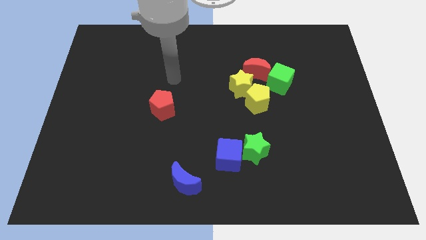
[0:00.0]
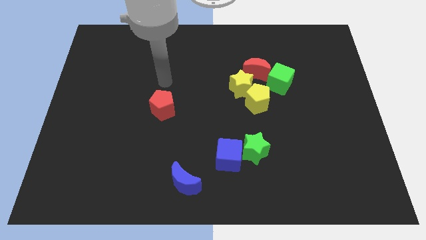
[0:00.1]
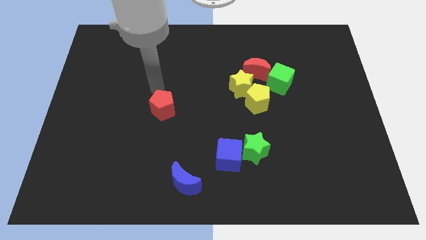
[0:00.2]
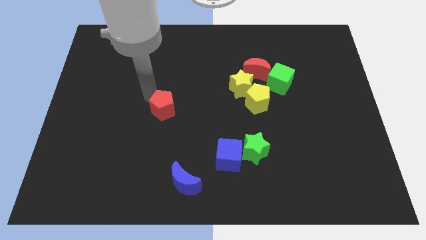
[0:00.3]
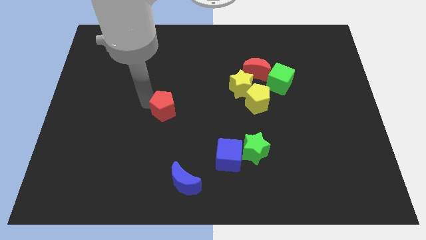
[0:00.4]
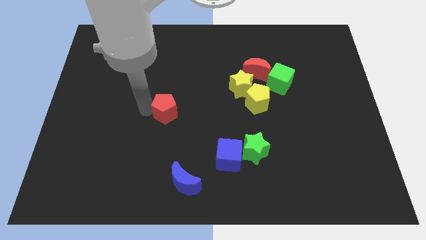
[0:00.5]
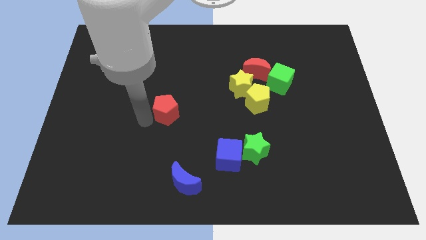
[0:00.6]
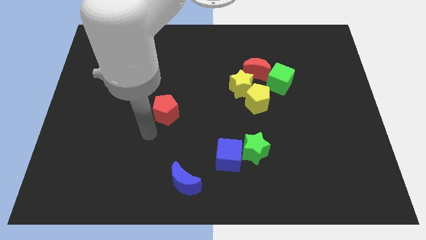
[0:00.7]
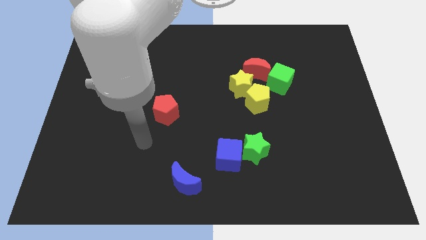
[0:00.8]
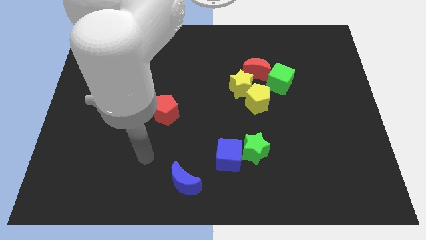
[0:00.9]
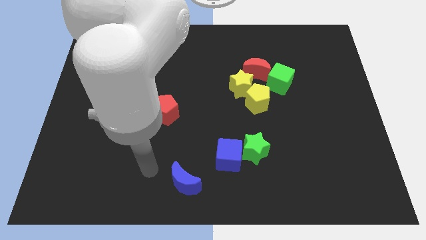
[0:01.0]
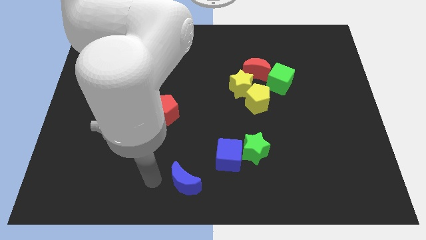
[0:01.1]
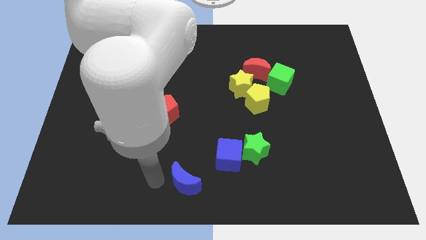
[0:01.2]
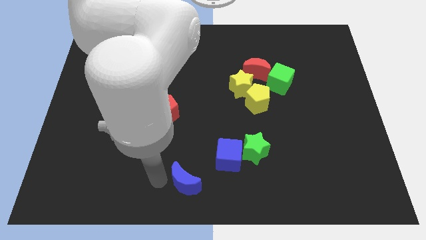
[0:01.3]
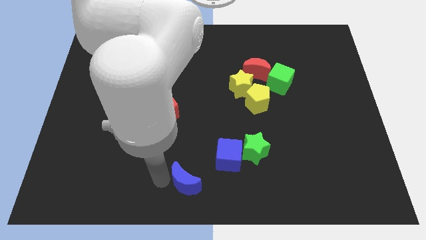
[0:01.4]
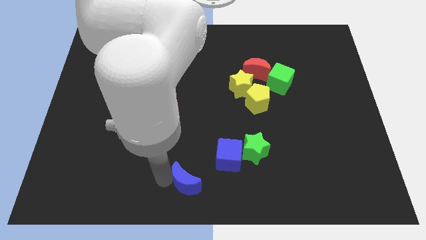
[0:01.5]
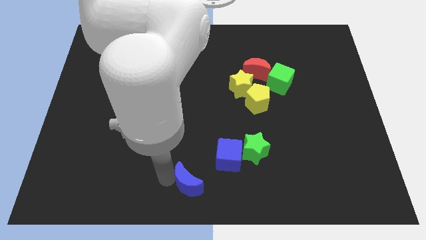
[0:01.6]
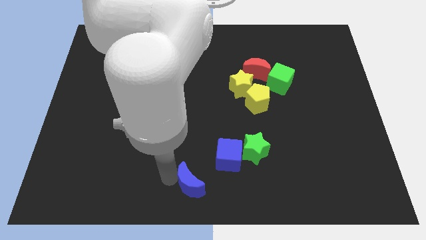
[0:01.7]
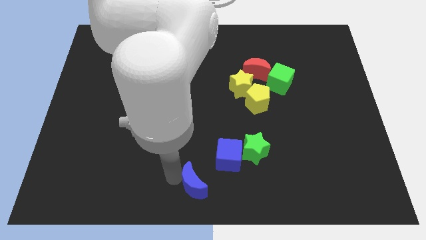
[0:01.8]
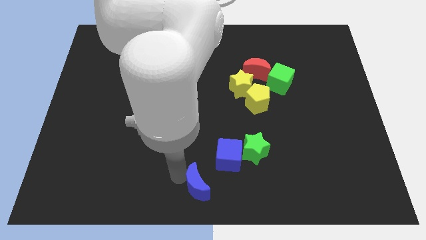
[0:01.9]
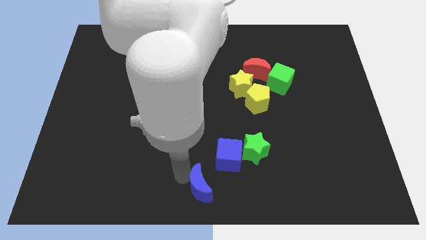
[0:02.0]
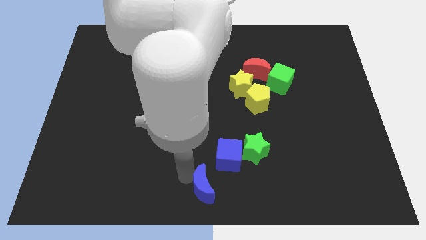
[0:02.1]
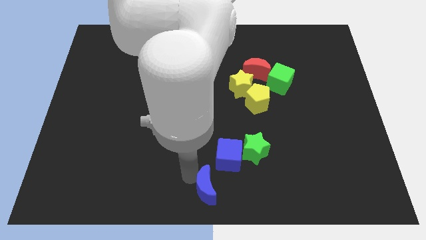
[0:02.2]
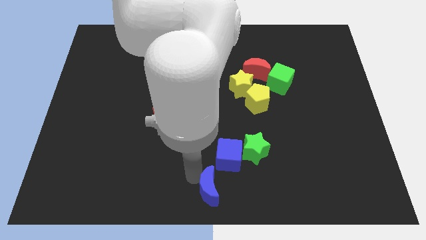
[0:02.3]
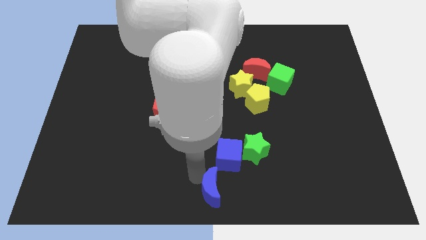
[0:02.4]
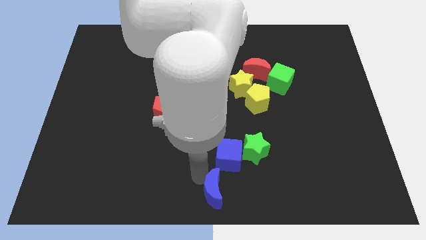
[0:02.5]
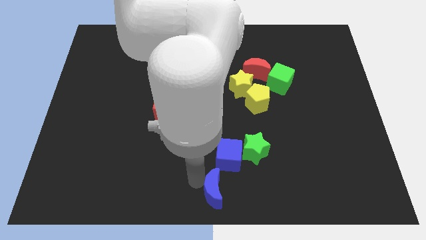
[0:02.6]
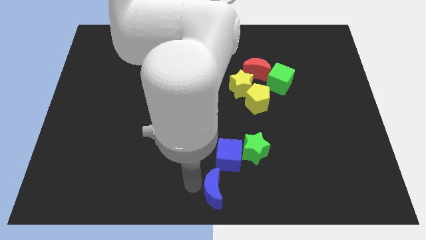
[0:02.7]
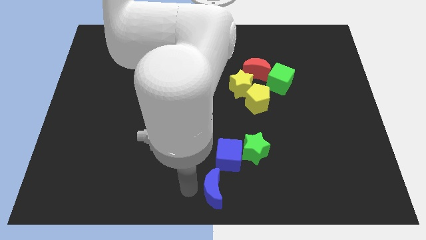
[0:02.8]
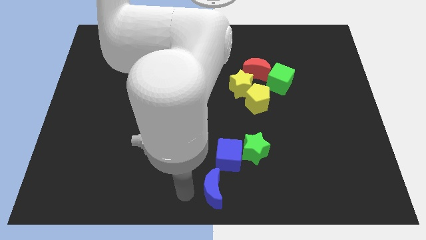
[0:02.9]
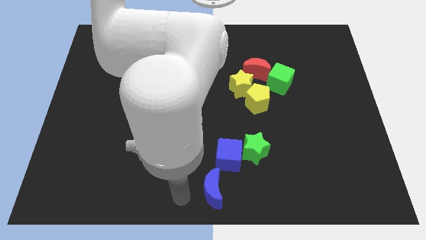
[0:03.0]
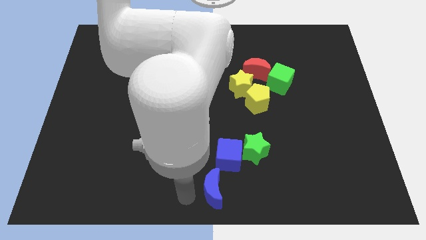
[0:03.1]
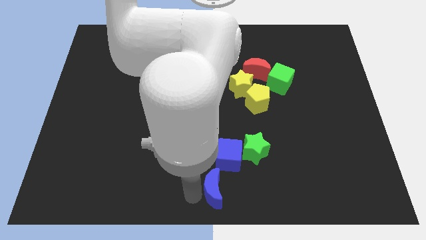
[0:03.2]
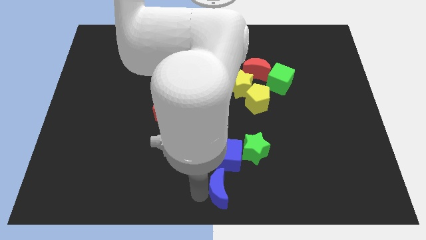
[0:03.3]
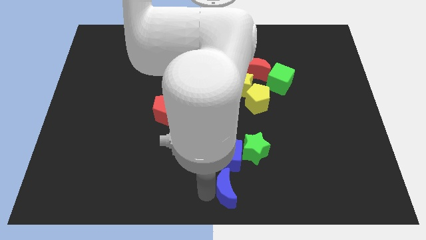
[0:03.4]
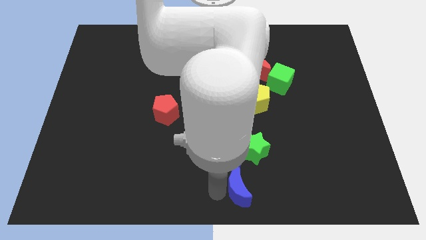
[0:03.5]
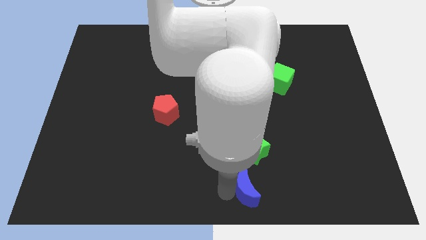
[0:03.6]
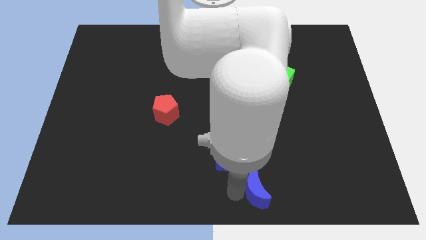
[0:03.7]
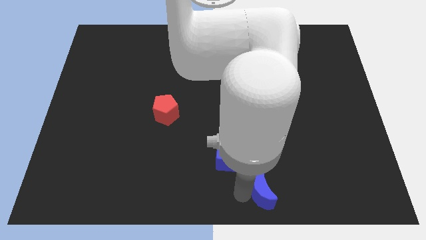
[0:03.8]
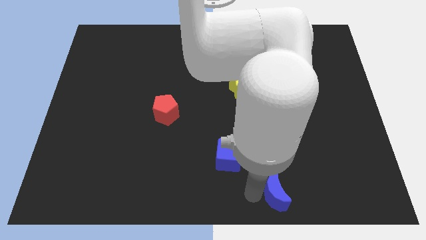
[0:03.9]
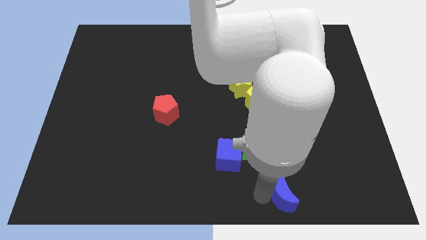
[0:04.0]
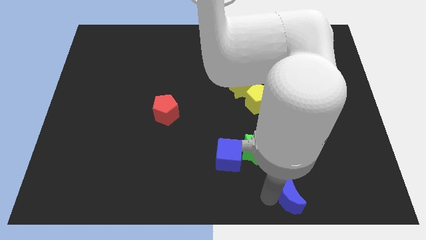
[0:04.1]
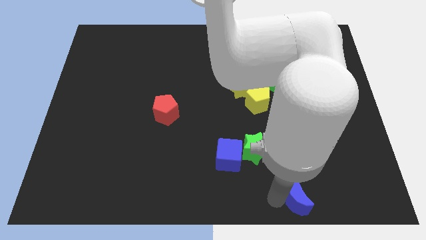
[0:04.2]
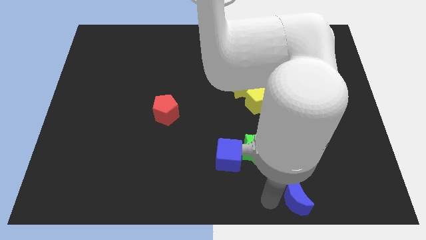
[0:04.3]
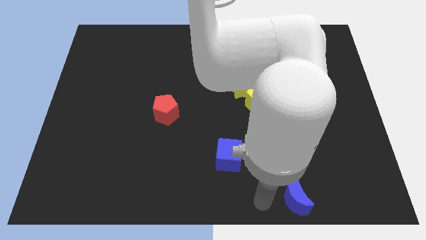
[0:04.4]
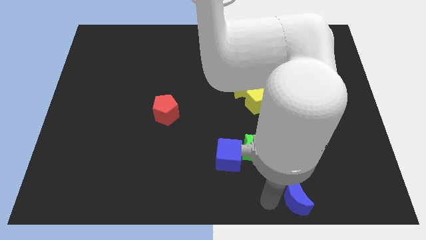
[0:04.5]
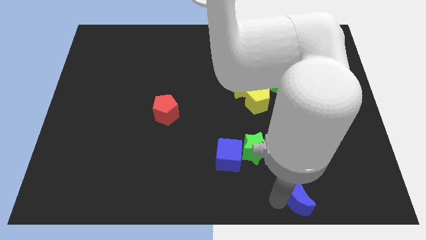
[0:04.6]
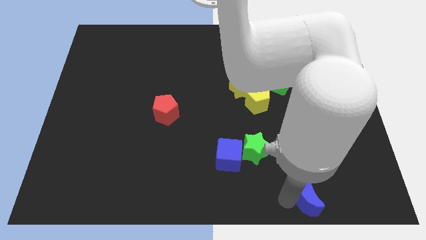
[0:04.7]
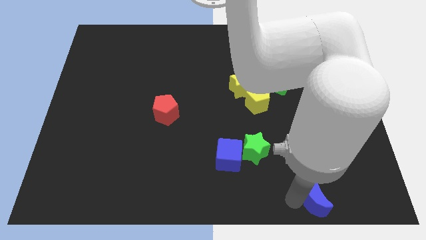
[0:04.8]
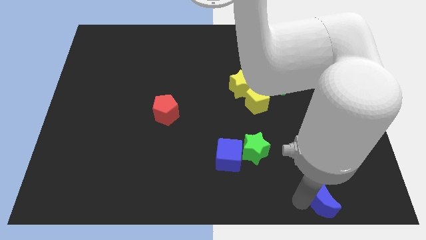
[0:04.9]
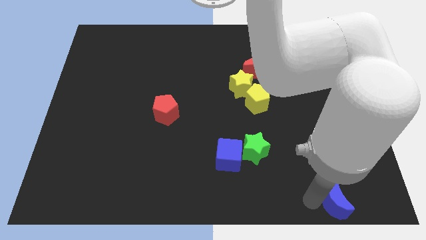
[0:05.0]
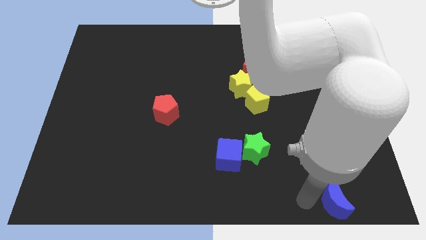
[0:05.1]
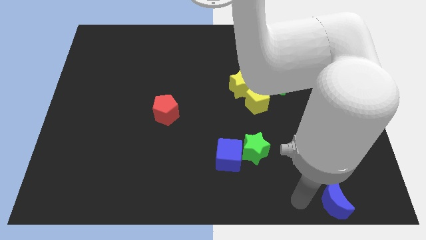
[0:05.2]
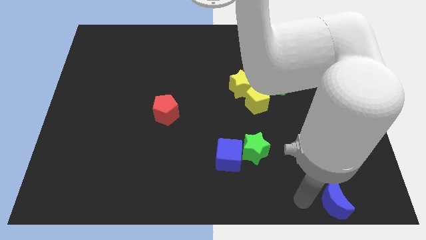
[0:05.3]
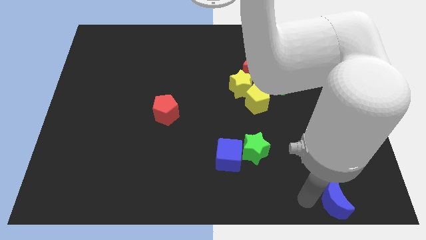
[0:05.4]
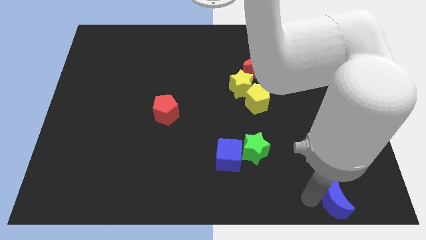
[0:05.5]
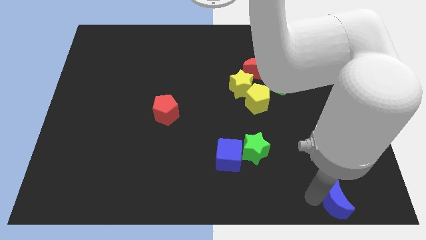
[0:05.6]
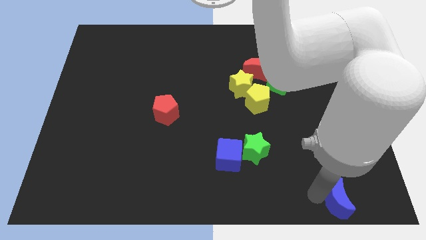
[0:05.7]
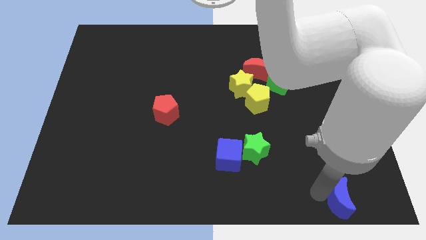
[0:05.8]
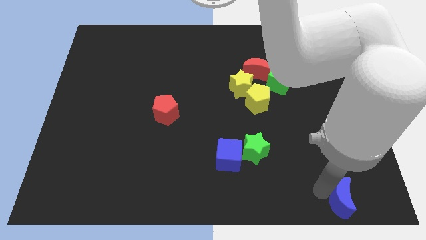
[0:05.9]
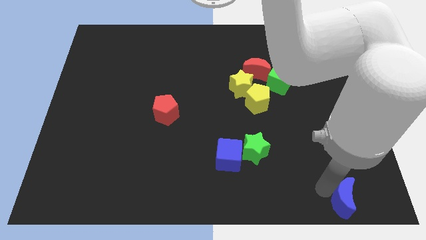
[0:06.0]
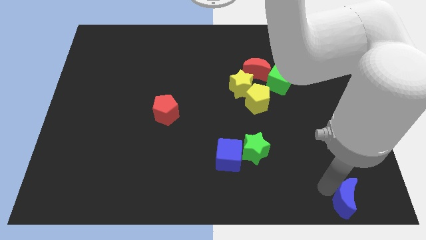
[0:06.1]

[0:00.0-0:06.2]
slide the blue moon to the bottom right corner
